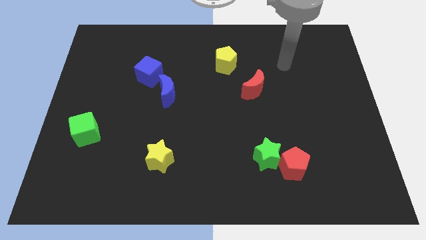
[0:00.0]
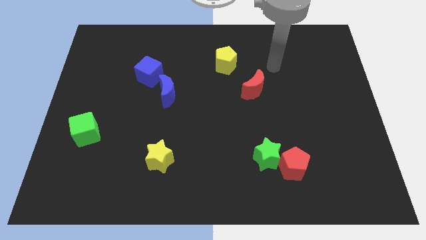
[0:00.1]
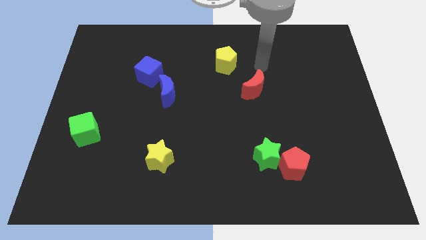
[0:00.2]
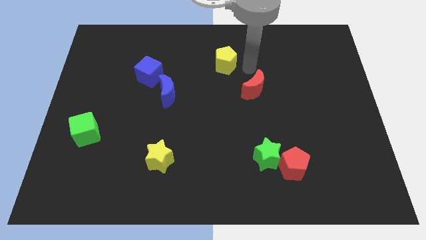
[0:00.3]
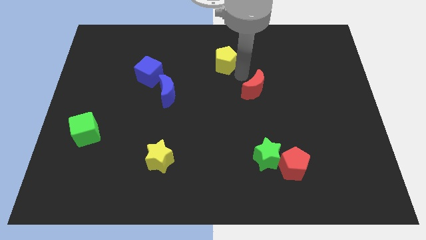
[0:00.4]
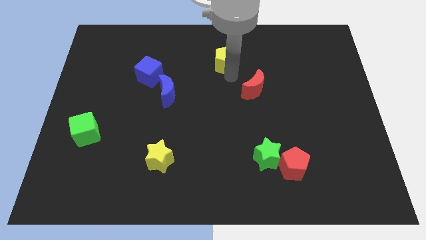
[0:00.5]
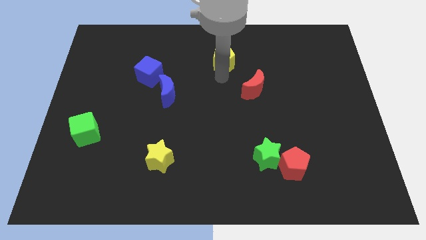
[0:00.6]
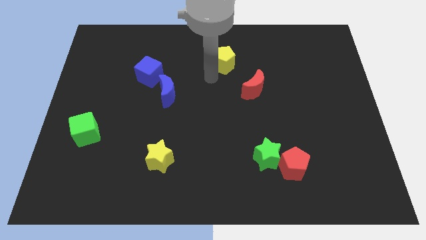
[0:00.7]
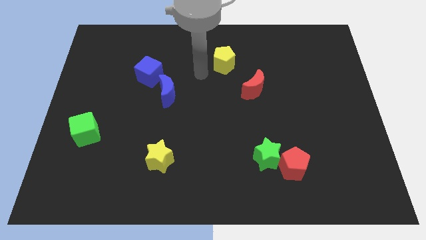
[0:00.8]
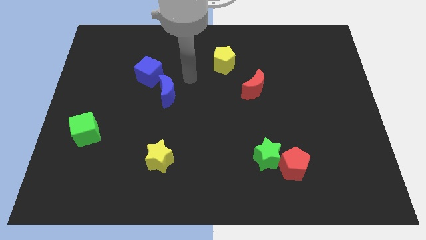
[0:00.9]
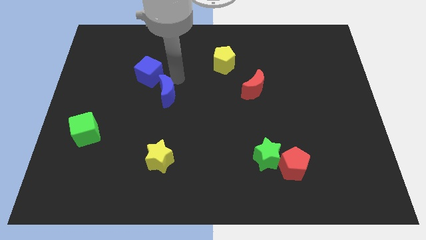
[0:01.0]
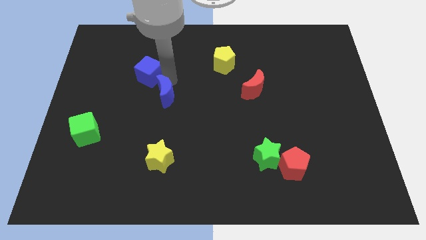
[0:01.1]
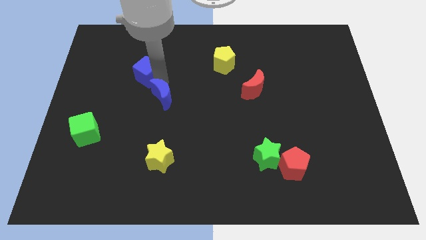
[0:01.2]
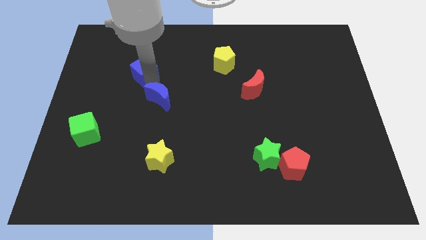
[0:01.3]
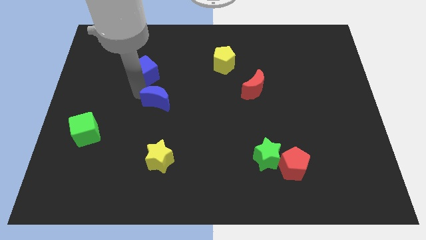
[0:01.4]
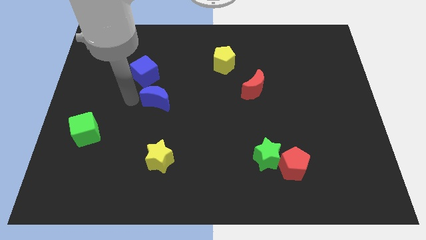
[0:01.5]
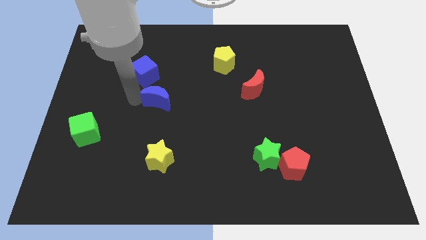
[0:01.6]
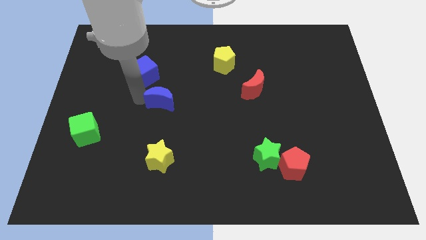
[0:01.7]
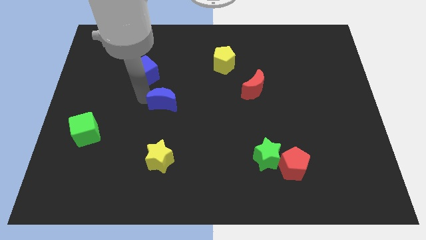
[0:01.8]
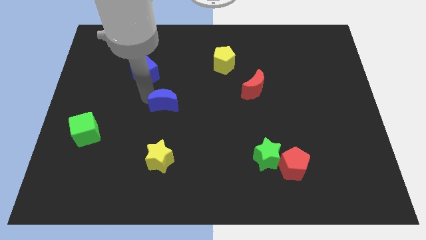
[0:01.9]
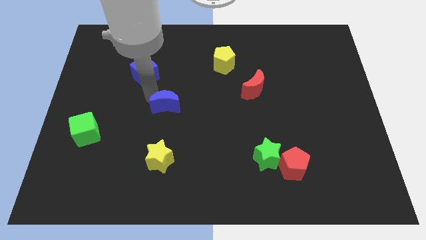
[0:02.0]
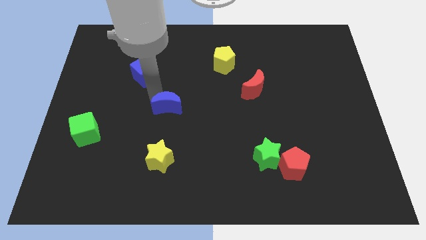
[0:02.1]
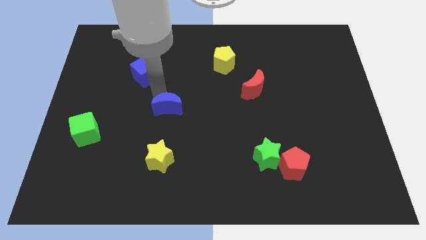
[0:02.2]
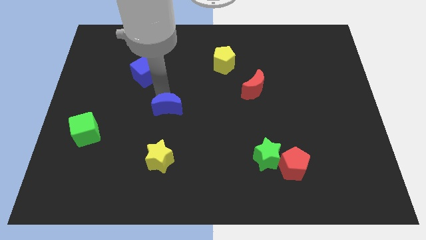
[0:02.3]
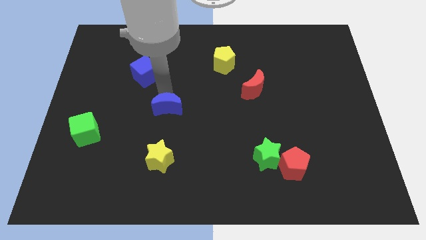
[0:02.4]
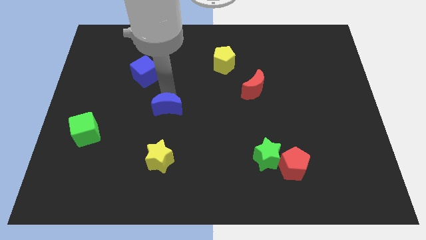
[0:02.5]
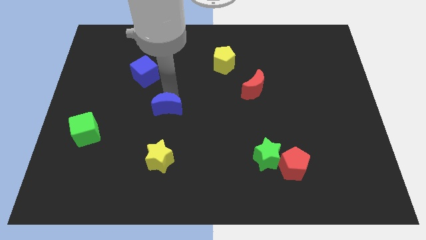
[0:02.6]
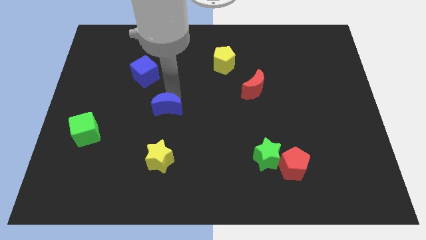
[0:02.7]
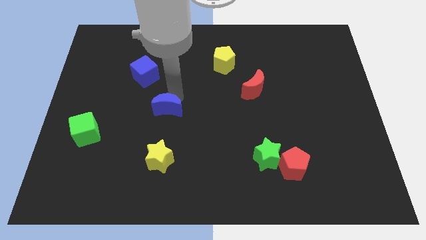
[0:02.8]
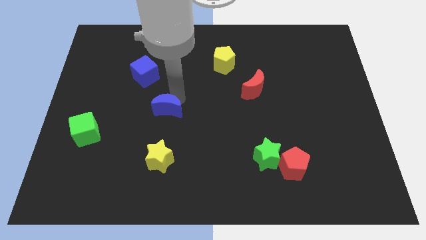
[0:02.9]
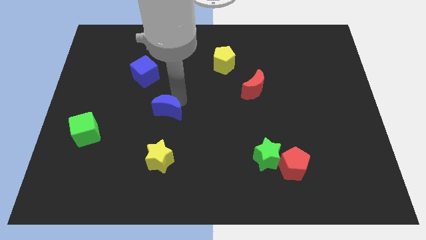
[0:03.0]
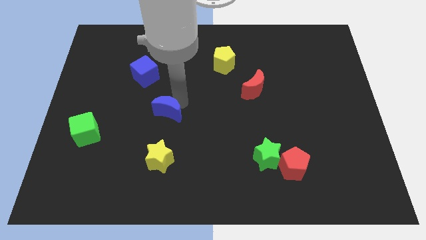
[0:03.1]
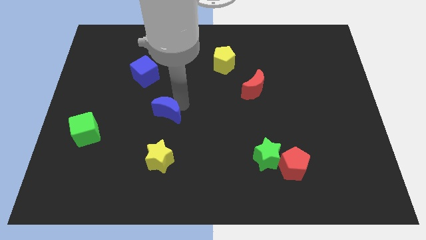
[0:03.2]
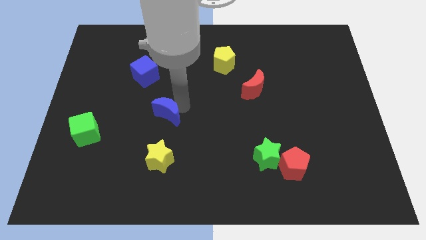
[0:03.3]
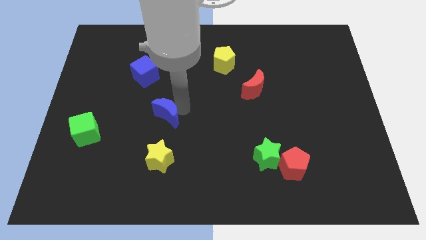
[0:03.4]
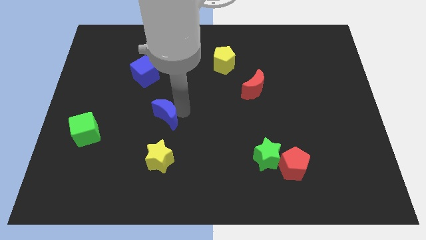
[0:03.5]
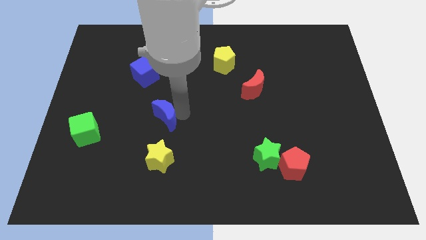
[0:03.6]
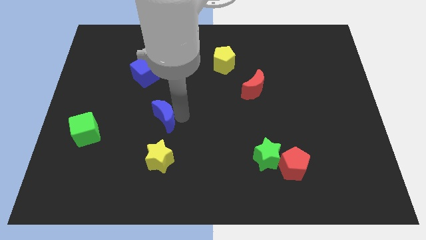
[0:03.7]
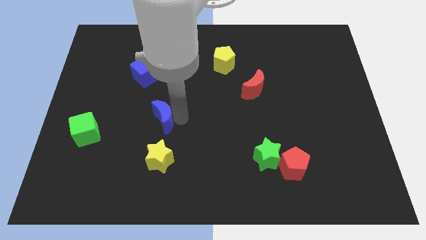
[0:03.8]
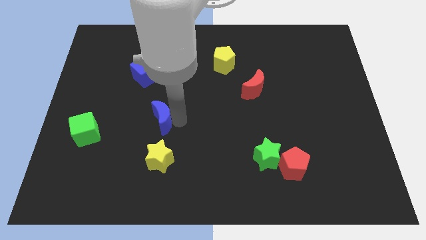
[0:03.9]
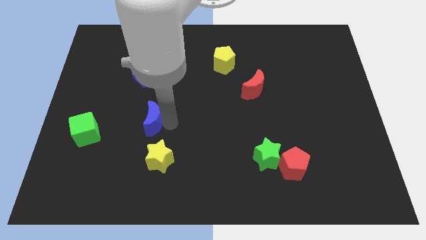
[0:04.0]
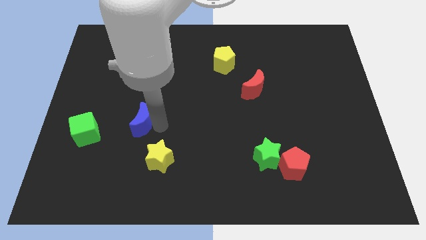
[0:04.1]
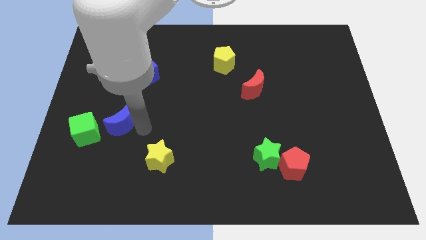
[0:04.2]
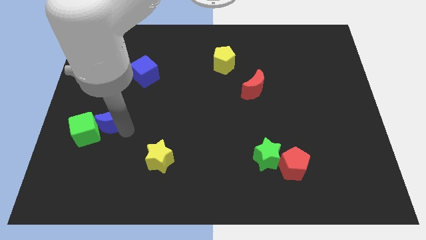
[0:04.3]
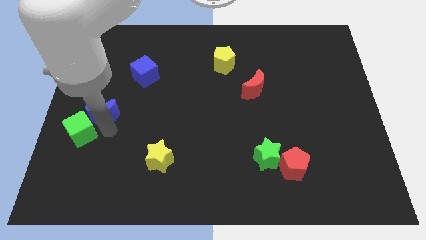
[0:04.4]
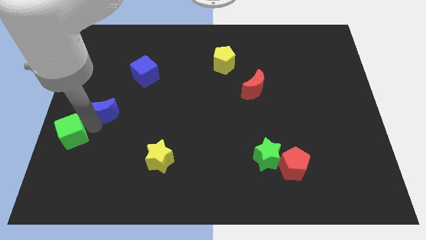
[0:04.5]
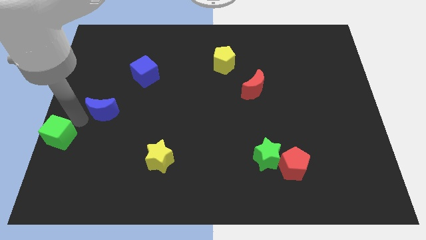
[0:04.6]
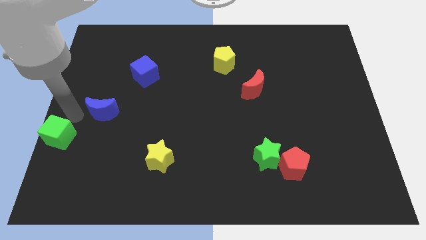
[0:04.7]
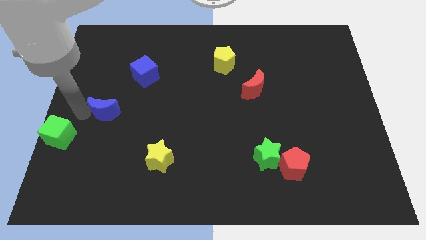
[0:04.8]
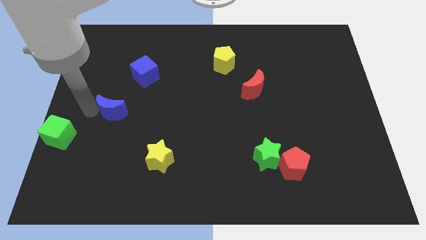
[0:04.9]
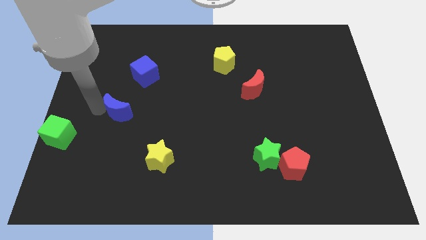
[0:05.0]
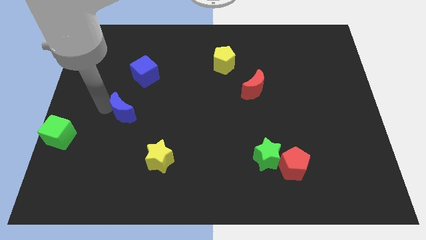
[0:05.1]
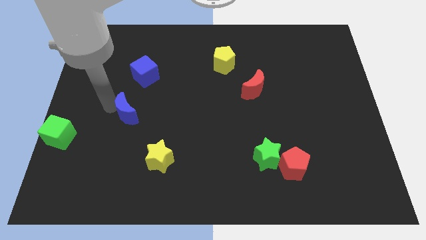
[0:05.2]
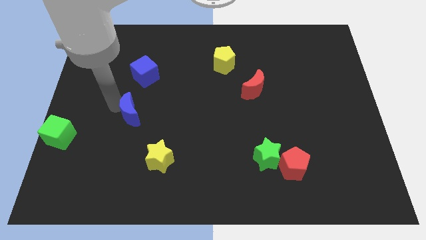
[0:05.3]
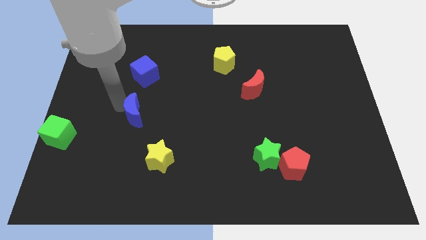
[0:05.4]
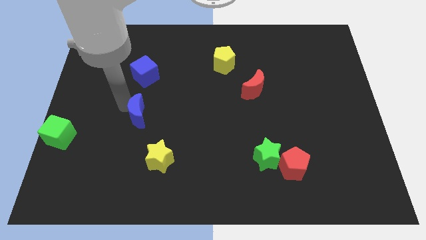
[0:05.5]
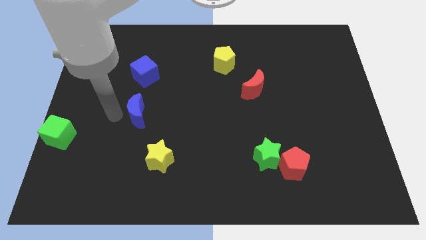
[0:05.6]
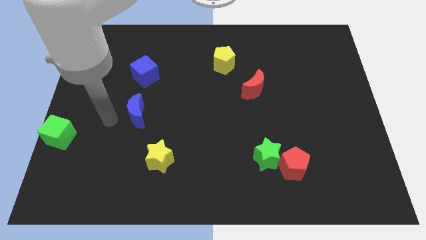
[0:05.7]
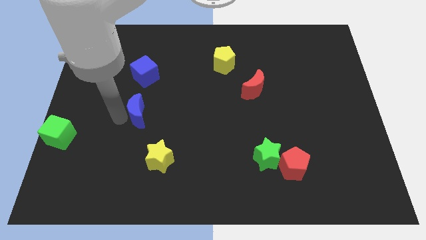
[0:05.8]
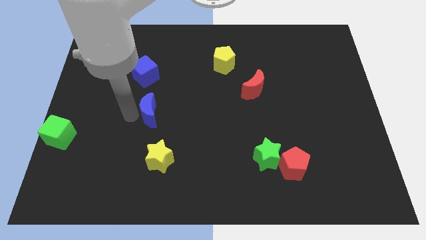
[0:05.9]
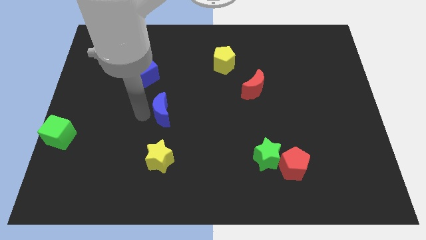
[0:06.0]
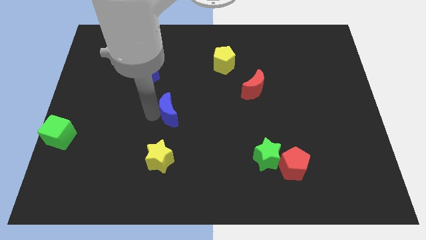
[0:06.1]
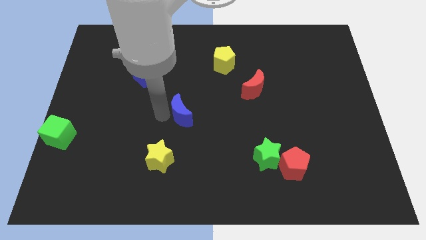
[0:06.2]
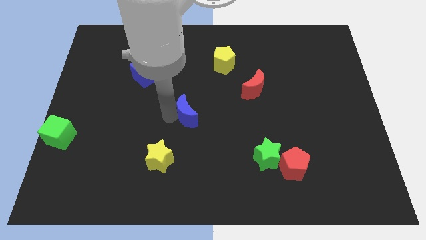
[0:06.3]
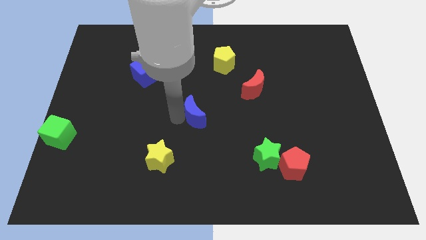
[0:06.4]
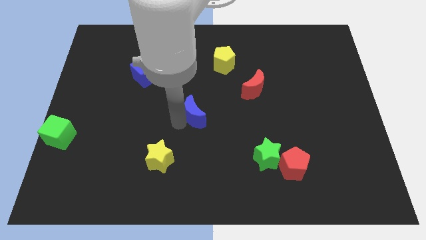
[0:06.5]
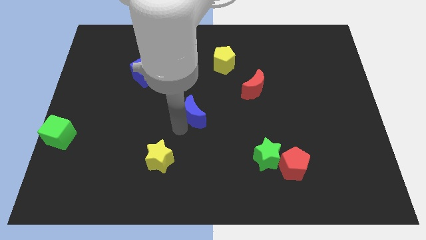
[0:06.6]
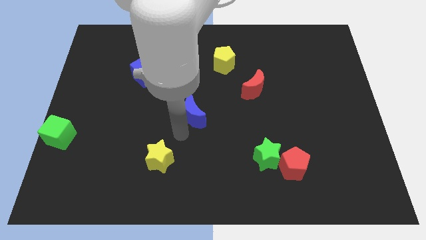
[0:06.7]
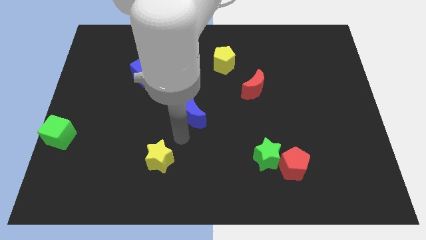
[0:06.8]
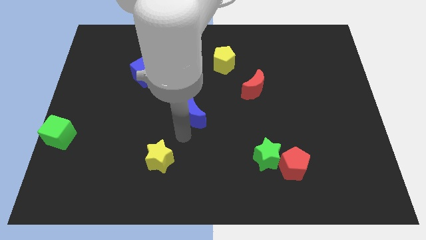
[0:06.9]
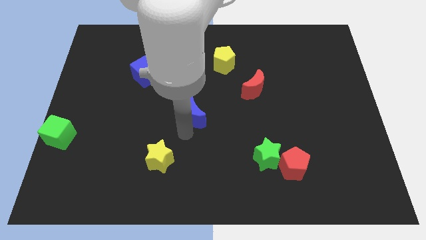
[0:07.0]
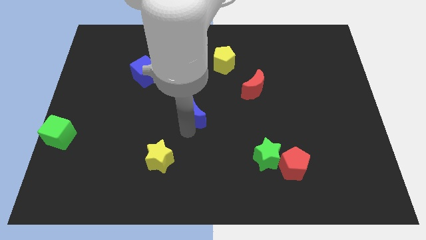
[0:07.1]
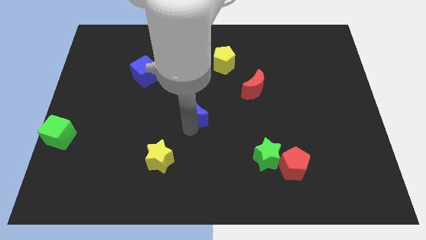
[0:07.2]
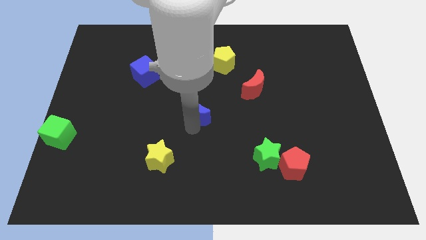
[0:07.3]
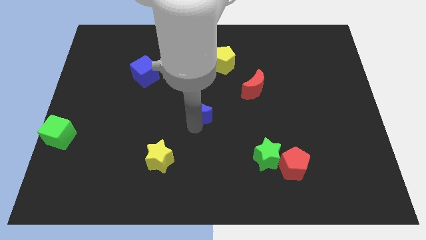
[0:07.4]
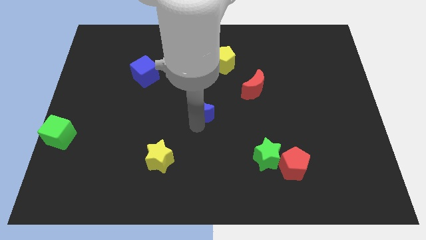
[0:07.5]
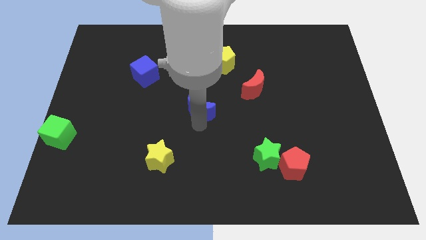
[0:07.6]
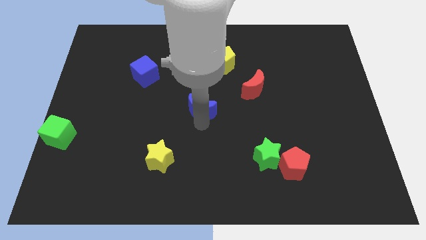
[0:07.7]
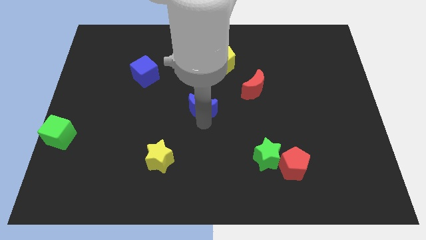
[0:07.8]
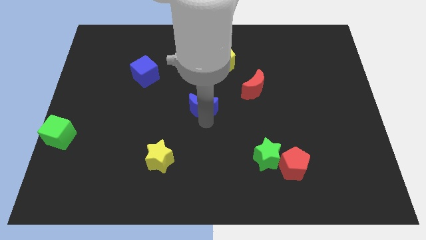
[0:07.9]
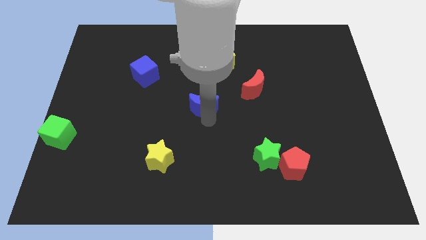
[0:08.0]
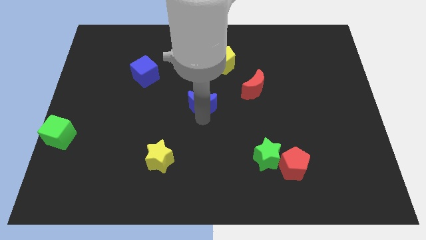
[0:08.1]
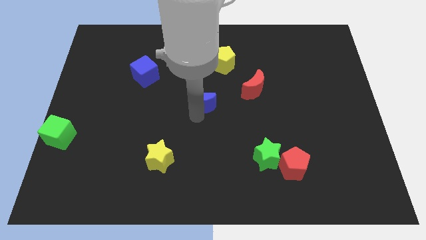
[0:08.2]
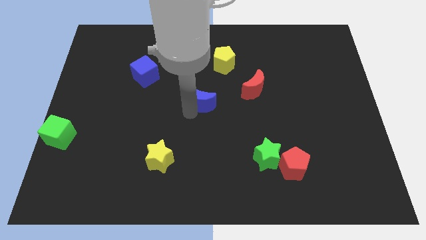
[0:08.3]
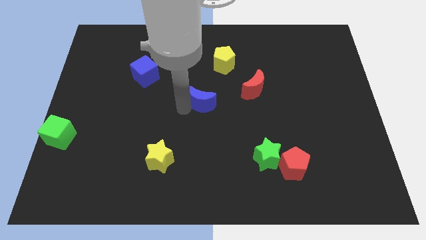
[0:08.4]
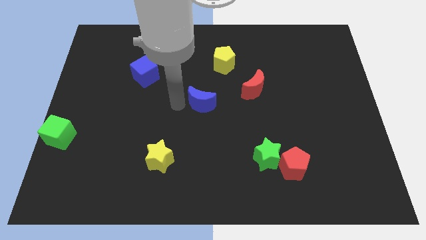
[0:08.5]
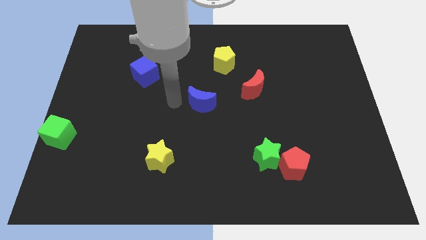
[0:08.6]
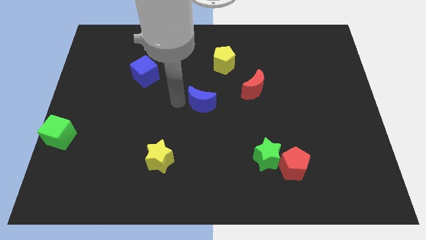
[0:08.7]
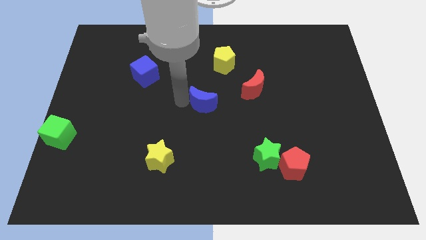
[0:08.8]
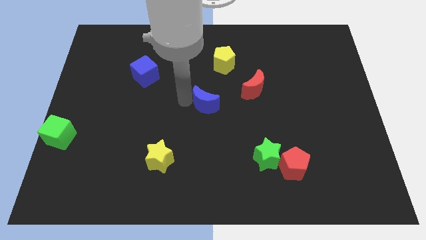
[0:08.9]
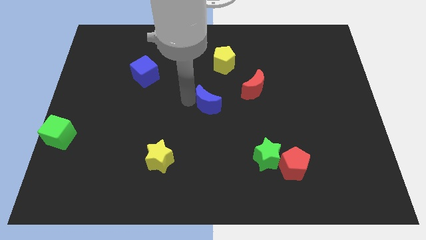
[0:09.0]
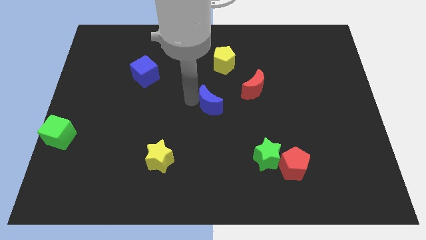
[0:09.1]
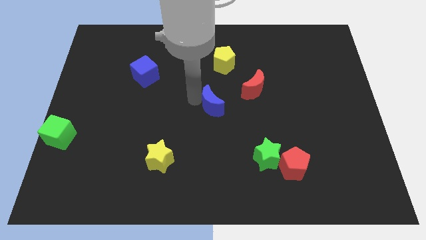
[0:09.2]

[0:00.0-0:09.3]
slide the blue moon to the bottom left side of the red moon
